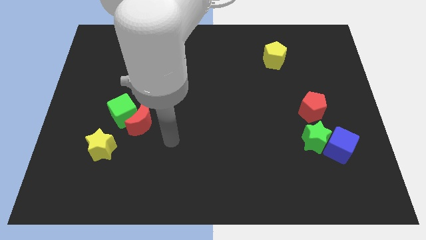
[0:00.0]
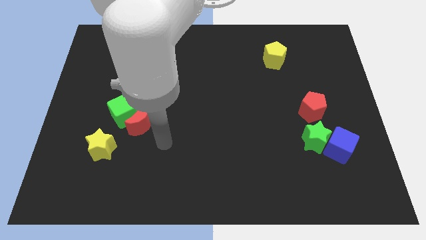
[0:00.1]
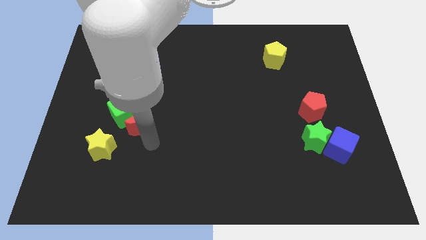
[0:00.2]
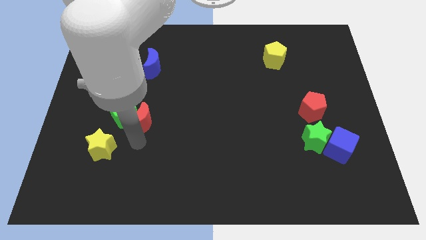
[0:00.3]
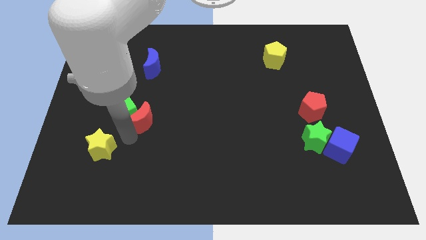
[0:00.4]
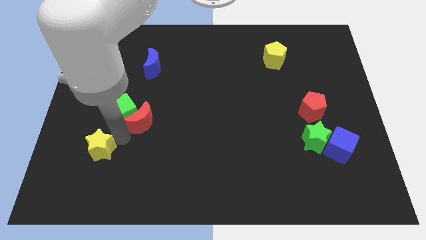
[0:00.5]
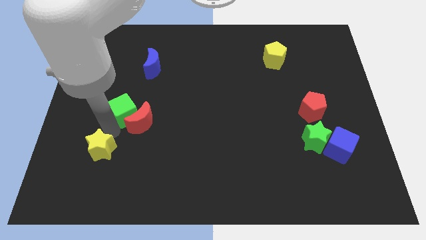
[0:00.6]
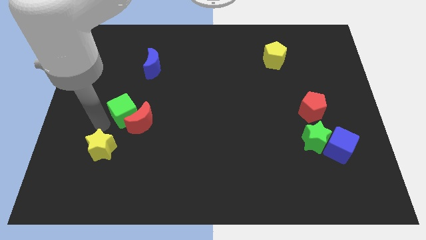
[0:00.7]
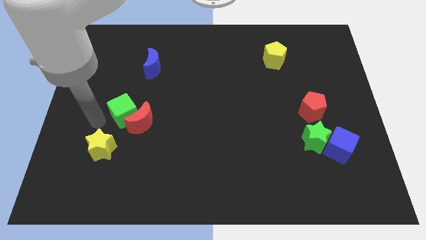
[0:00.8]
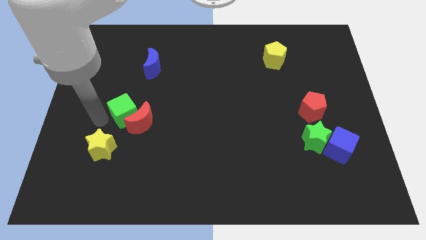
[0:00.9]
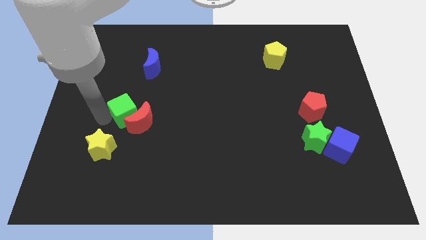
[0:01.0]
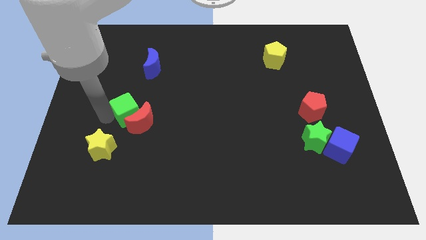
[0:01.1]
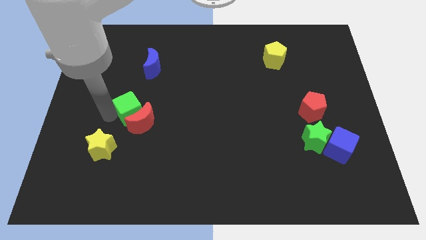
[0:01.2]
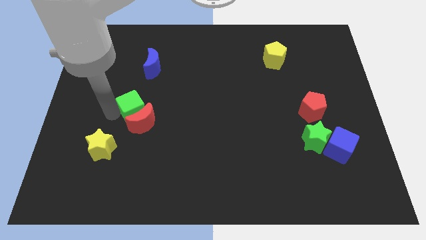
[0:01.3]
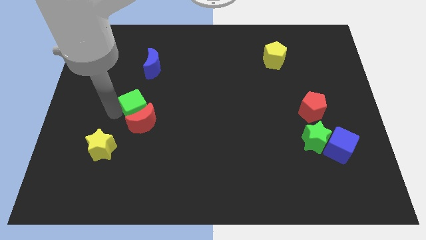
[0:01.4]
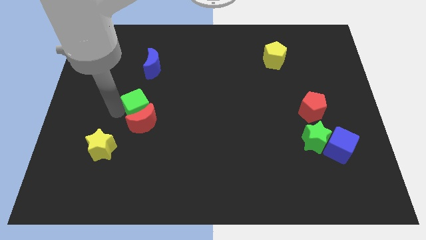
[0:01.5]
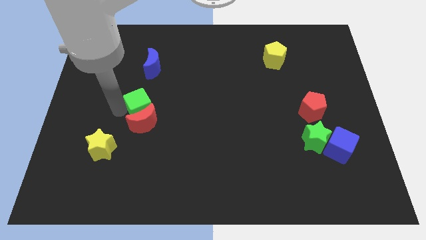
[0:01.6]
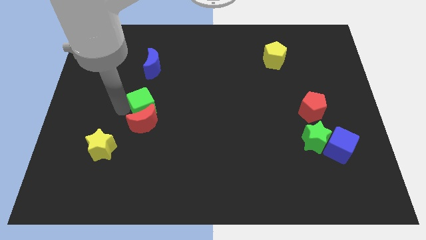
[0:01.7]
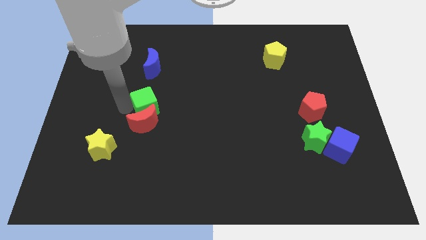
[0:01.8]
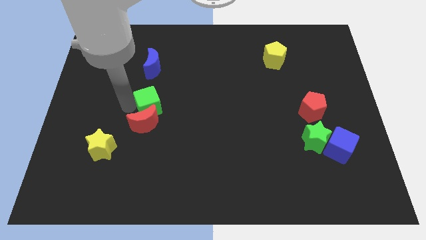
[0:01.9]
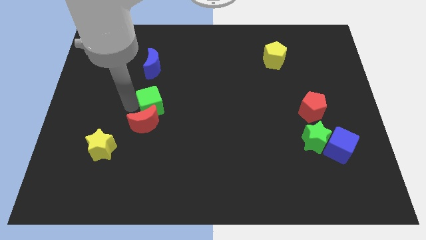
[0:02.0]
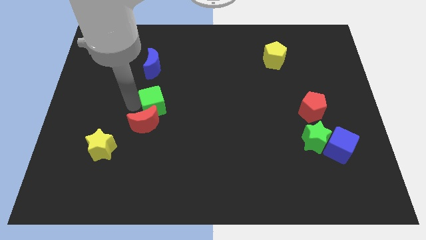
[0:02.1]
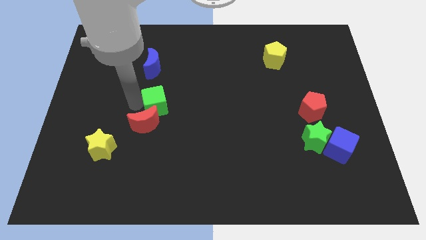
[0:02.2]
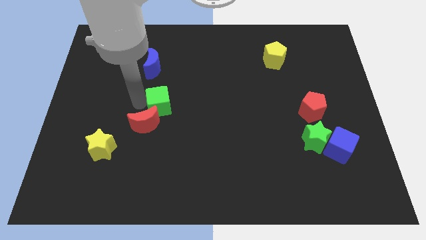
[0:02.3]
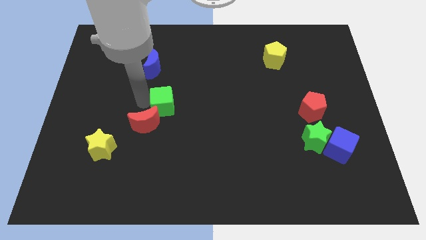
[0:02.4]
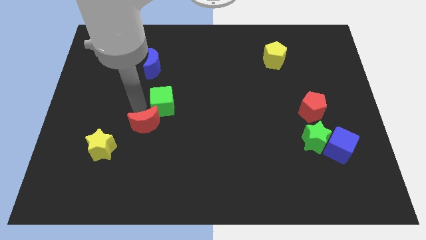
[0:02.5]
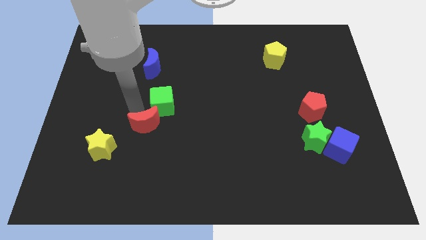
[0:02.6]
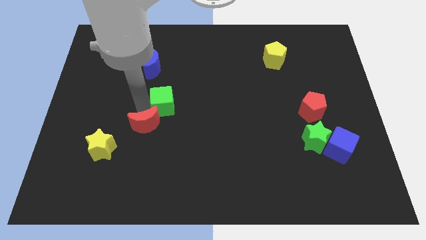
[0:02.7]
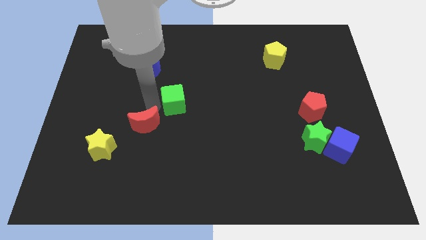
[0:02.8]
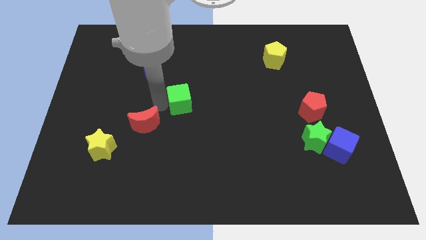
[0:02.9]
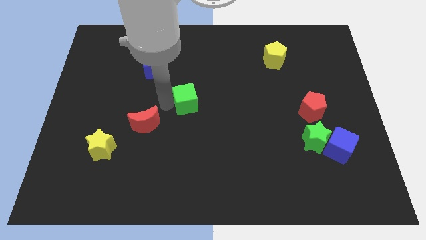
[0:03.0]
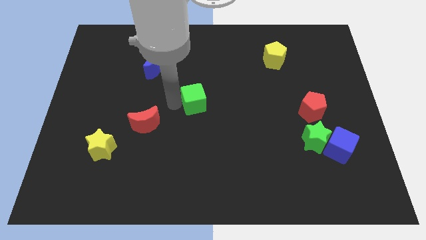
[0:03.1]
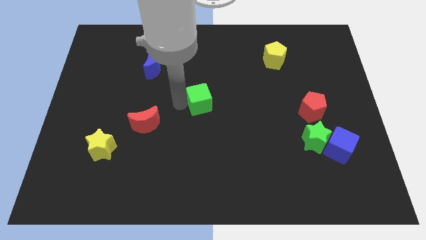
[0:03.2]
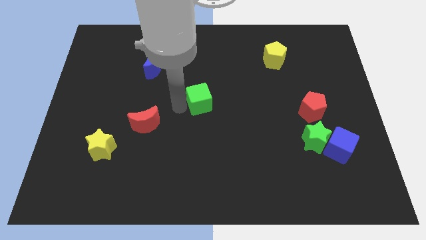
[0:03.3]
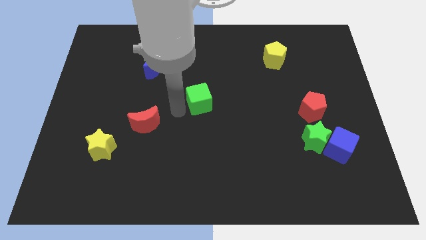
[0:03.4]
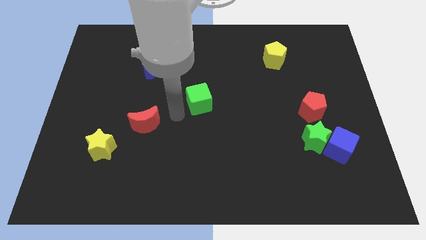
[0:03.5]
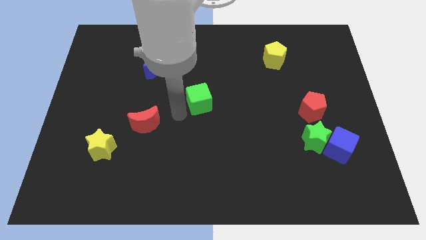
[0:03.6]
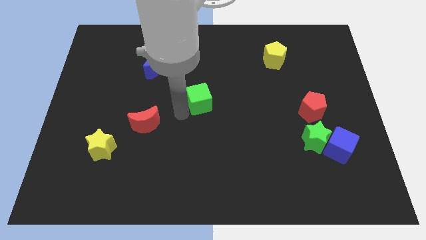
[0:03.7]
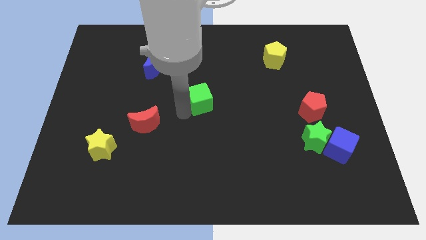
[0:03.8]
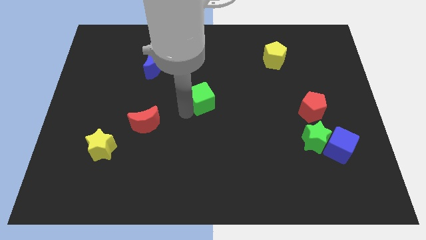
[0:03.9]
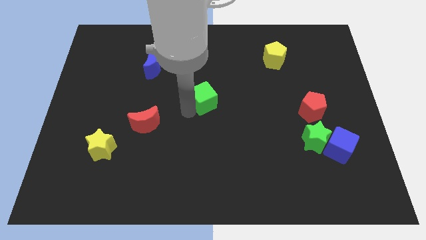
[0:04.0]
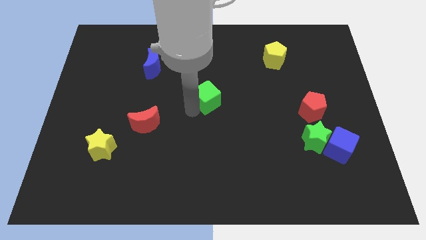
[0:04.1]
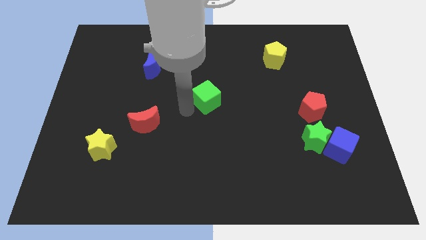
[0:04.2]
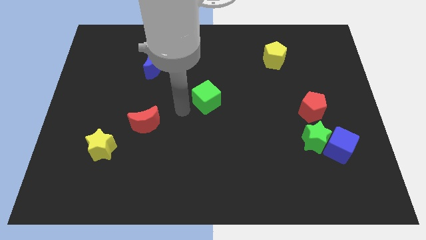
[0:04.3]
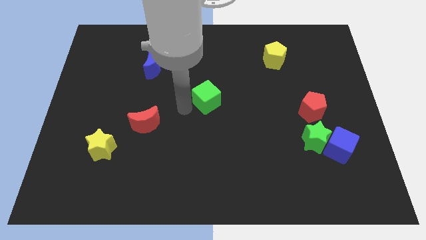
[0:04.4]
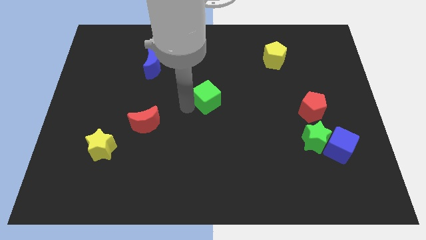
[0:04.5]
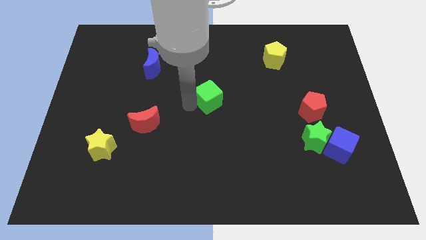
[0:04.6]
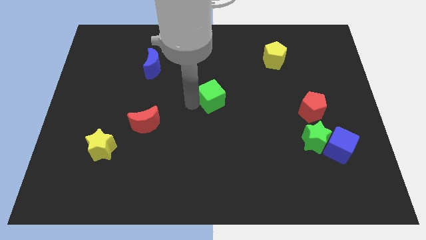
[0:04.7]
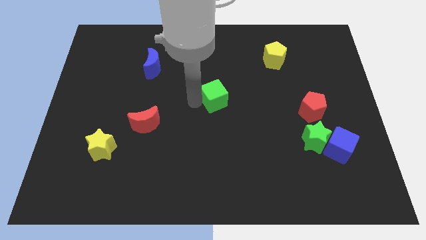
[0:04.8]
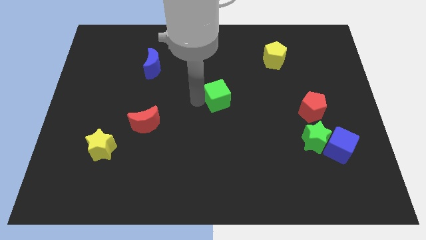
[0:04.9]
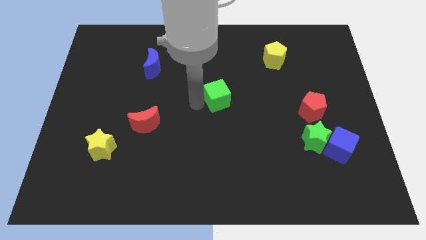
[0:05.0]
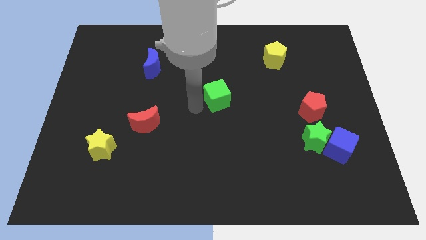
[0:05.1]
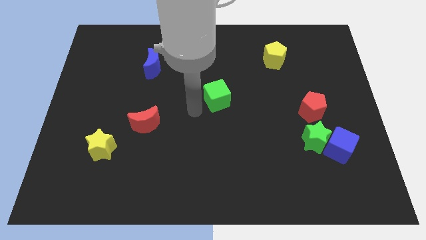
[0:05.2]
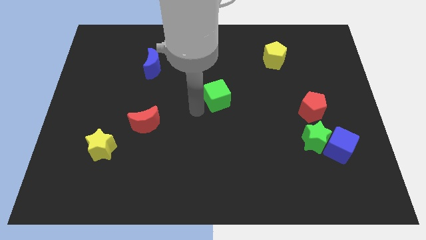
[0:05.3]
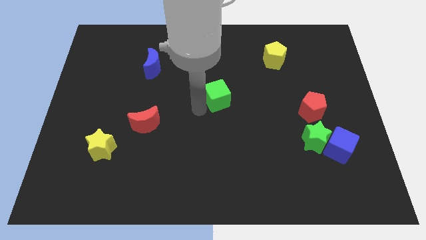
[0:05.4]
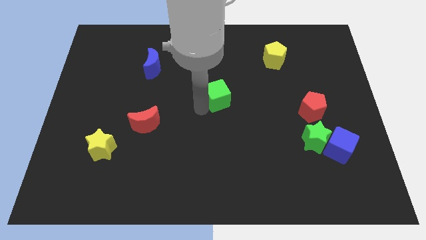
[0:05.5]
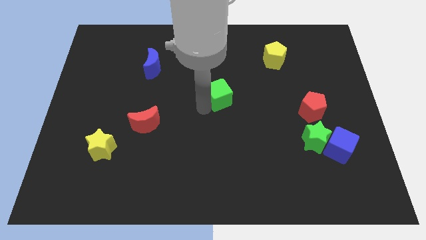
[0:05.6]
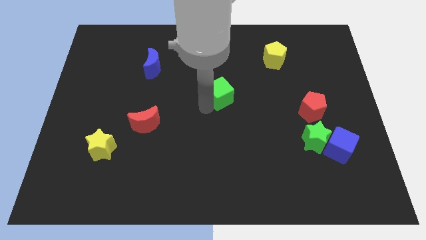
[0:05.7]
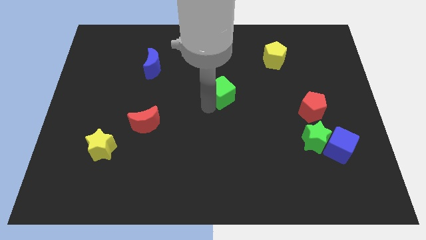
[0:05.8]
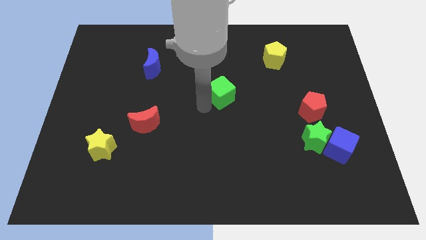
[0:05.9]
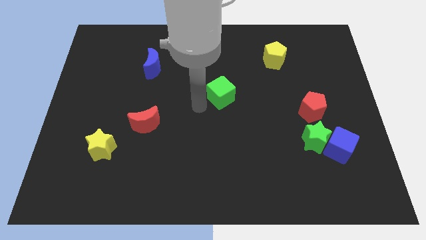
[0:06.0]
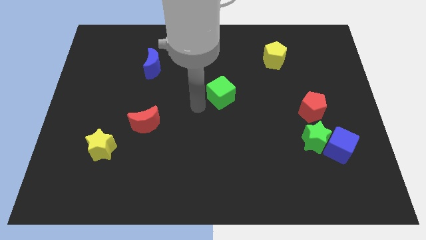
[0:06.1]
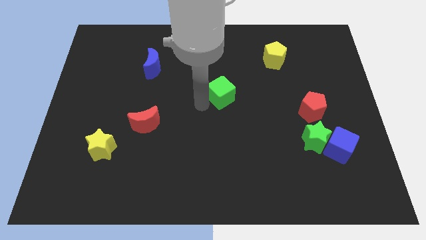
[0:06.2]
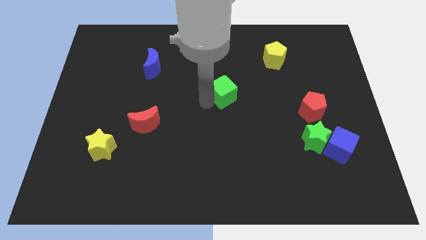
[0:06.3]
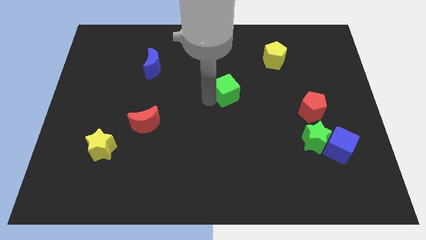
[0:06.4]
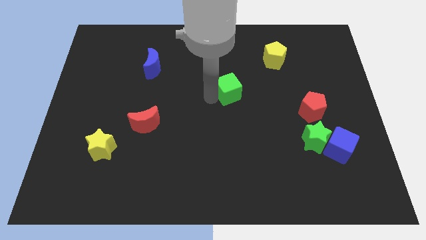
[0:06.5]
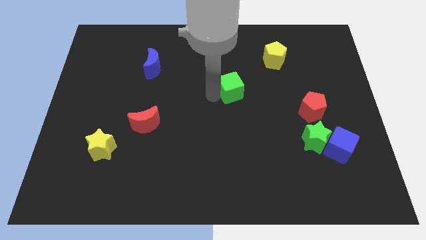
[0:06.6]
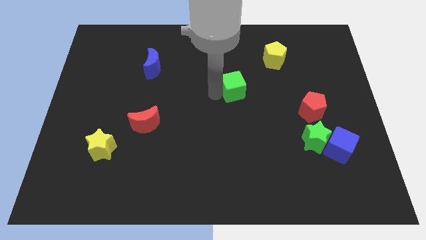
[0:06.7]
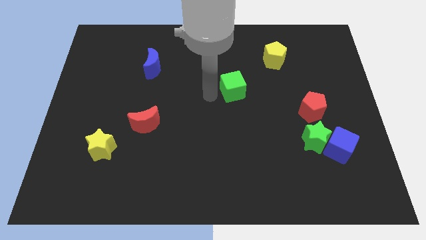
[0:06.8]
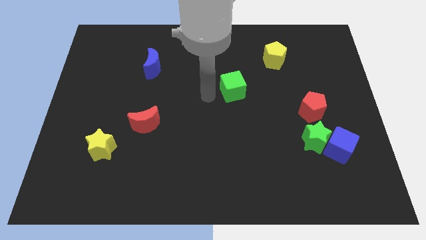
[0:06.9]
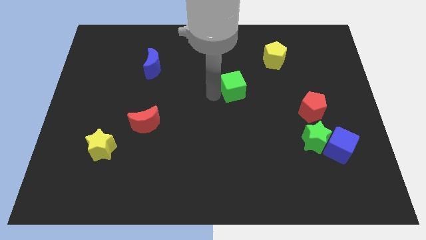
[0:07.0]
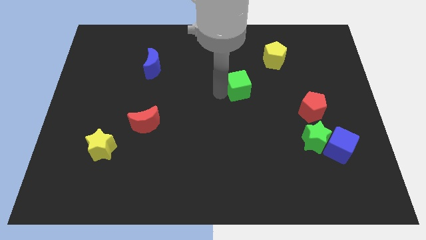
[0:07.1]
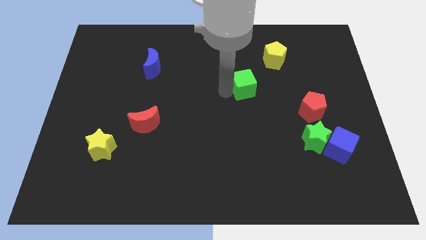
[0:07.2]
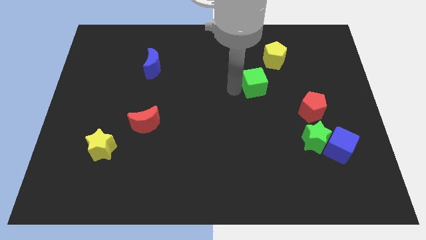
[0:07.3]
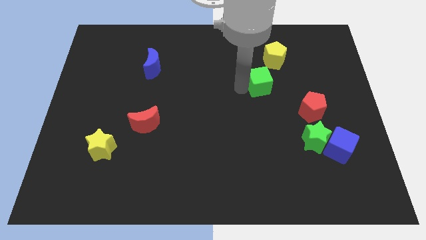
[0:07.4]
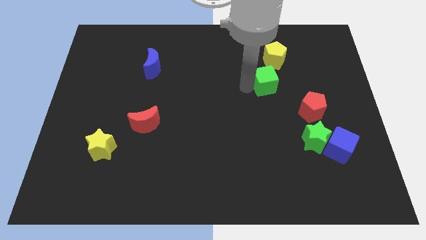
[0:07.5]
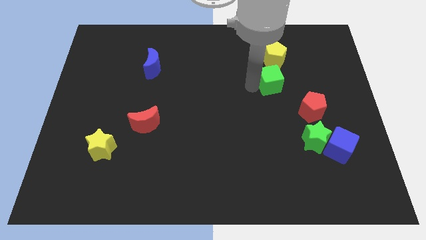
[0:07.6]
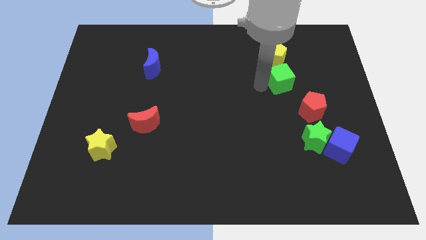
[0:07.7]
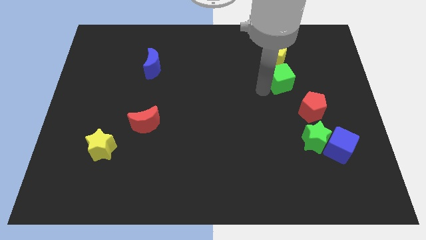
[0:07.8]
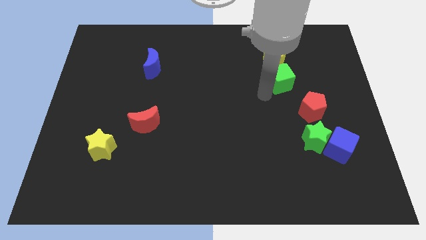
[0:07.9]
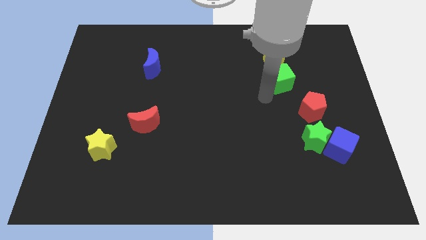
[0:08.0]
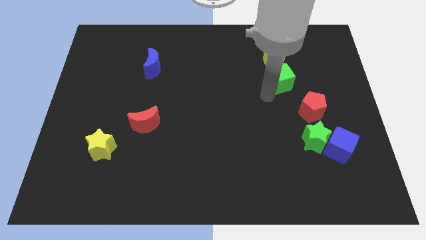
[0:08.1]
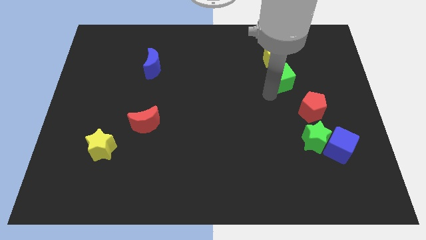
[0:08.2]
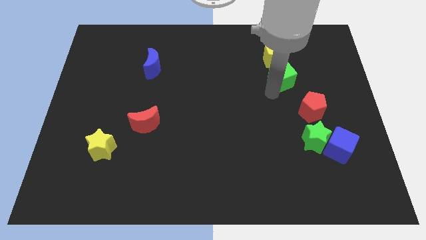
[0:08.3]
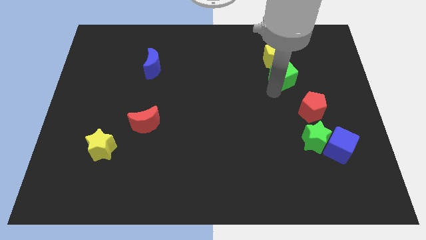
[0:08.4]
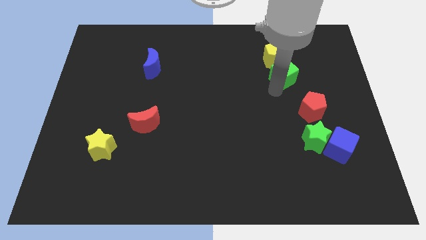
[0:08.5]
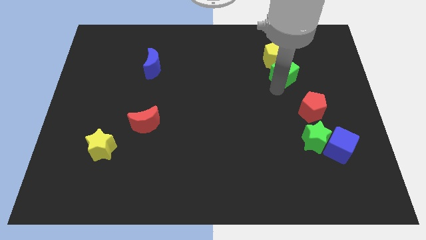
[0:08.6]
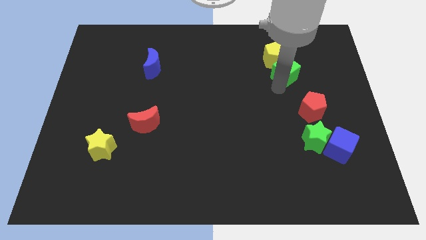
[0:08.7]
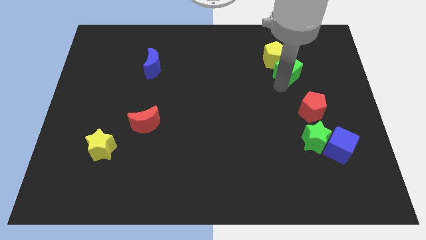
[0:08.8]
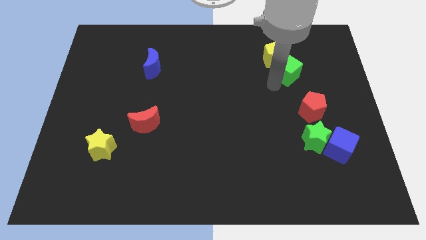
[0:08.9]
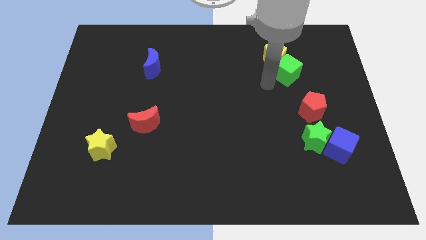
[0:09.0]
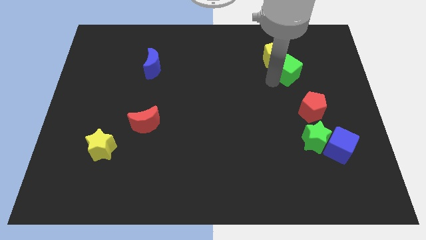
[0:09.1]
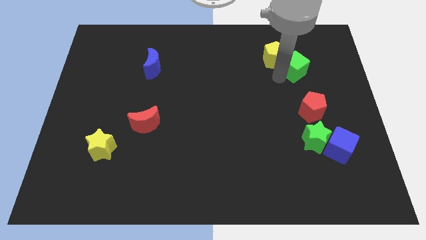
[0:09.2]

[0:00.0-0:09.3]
slide the green cube right of the yellow pentagon
